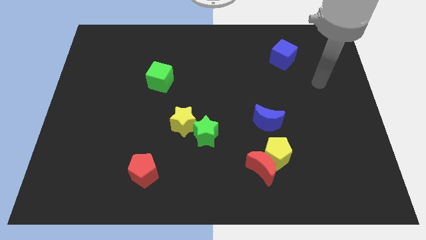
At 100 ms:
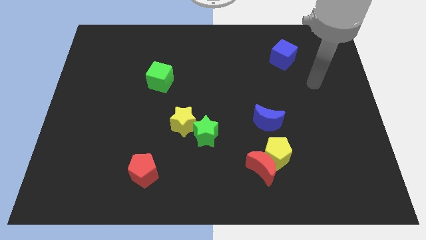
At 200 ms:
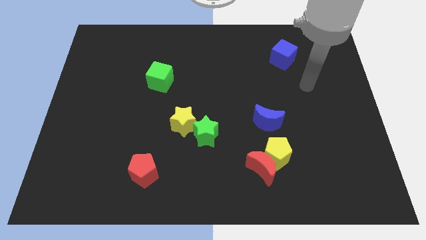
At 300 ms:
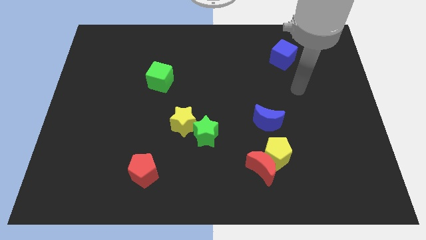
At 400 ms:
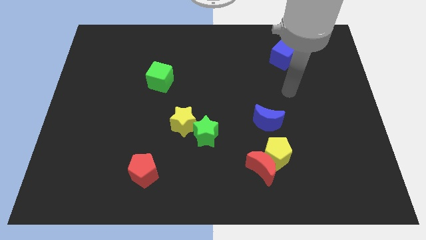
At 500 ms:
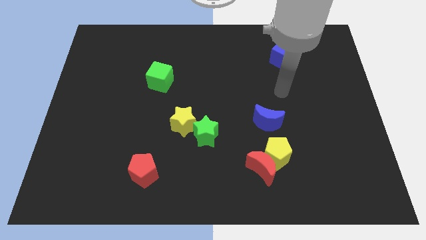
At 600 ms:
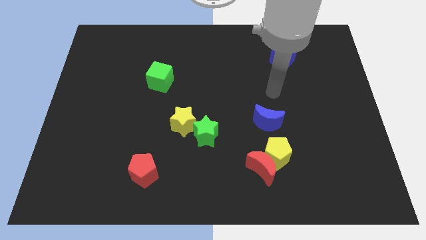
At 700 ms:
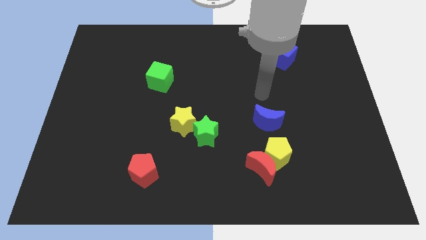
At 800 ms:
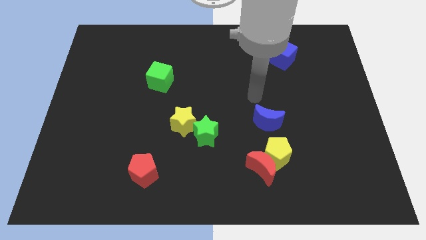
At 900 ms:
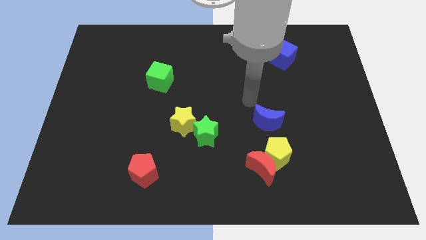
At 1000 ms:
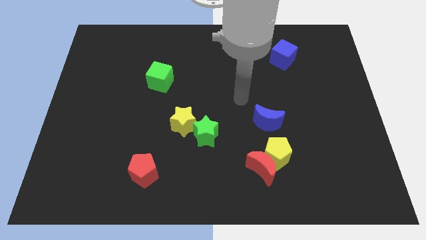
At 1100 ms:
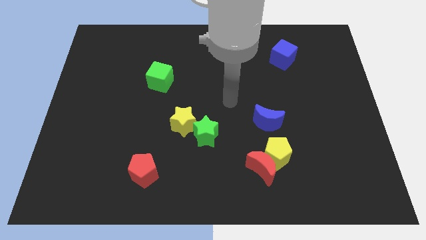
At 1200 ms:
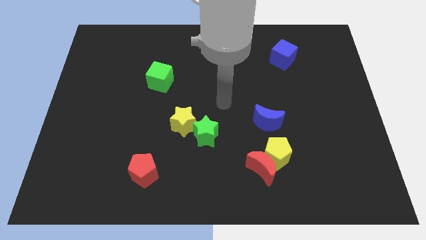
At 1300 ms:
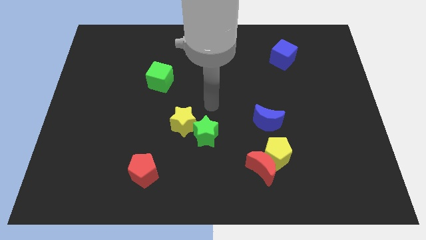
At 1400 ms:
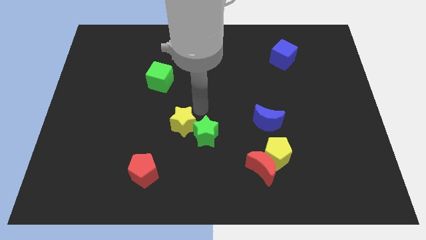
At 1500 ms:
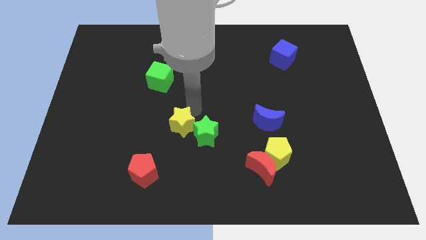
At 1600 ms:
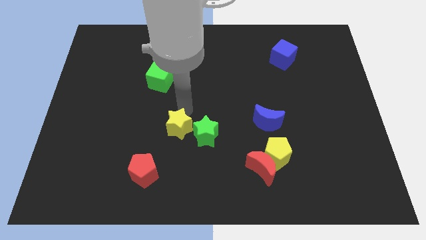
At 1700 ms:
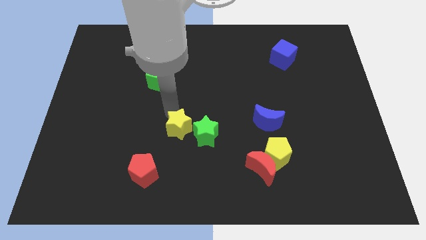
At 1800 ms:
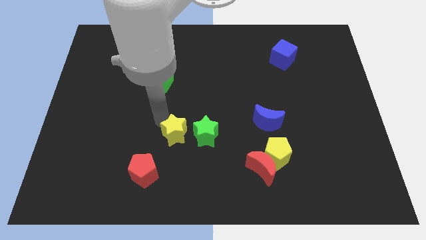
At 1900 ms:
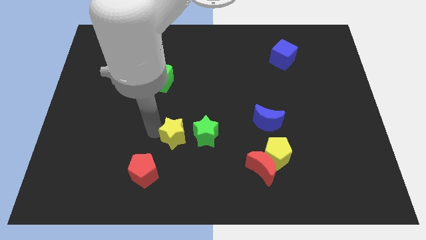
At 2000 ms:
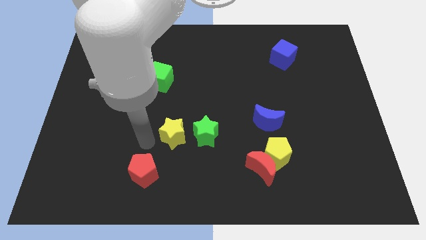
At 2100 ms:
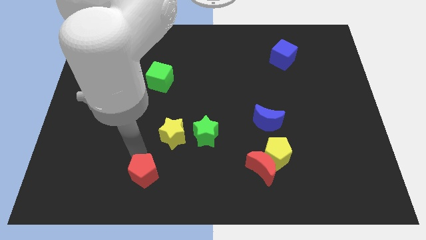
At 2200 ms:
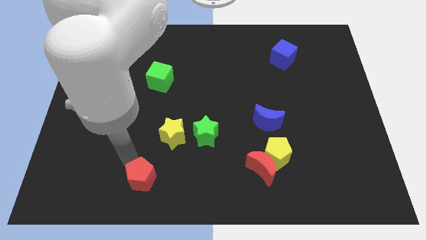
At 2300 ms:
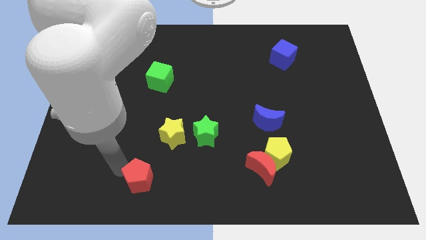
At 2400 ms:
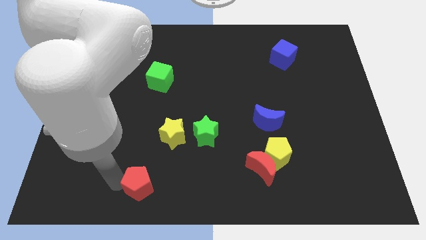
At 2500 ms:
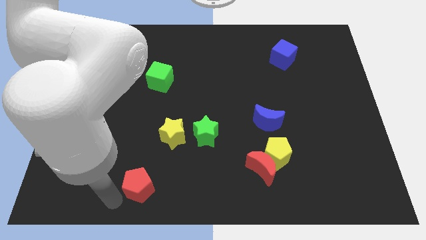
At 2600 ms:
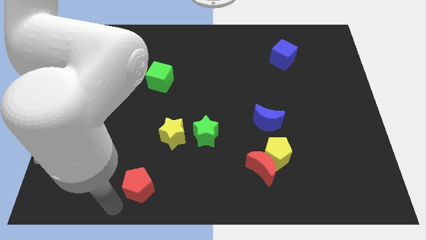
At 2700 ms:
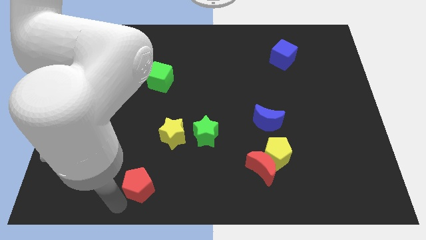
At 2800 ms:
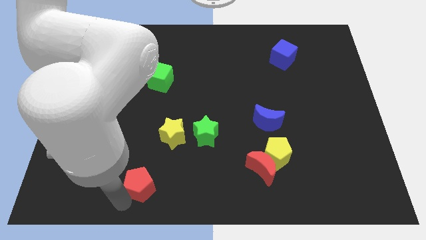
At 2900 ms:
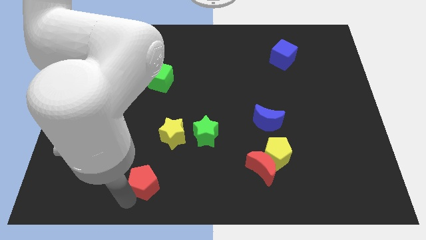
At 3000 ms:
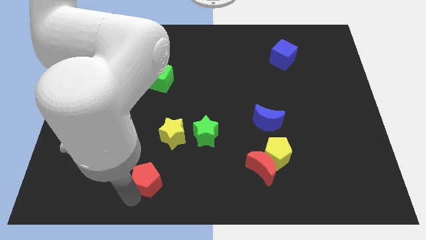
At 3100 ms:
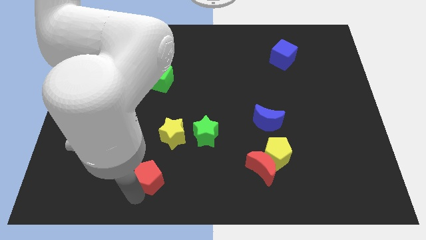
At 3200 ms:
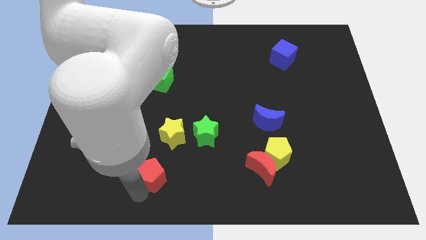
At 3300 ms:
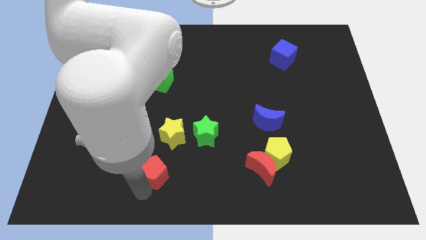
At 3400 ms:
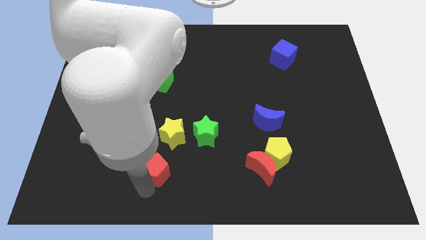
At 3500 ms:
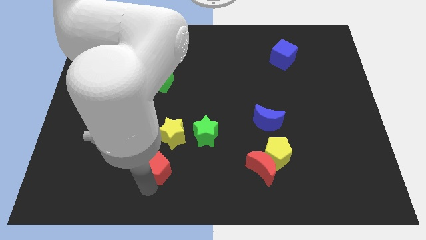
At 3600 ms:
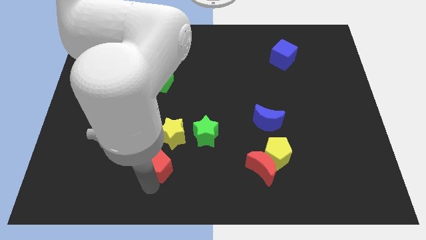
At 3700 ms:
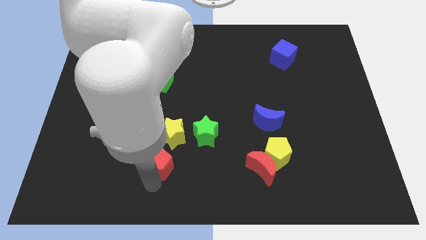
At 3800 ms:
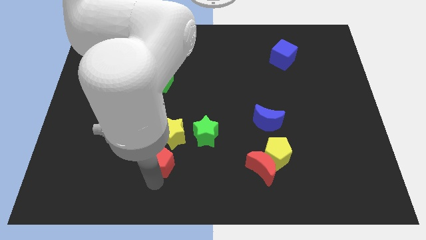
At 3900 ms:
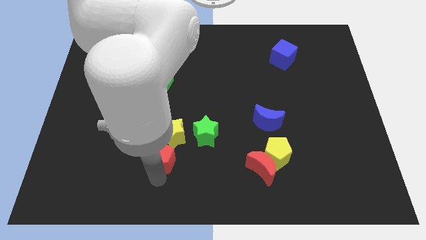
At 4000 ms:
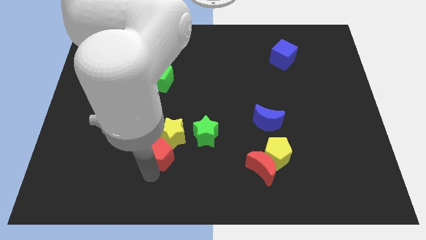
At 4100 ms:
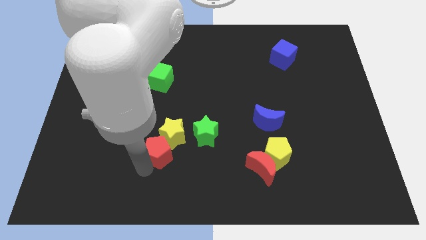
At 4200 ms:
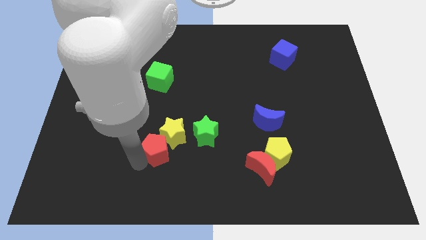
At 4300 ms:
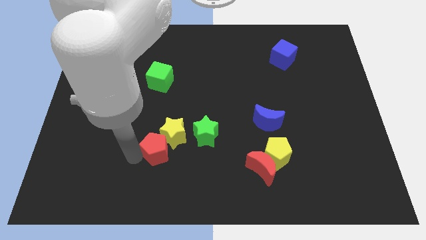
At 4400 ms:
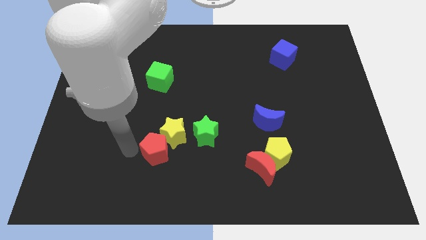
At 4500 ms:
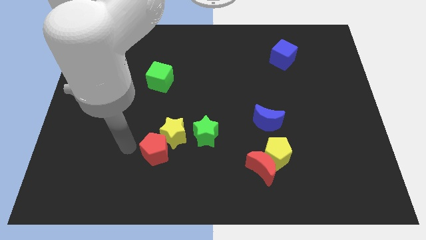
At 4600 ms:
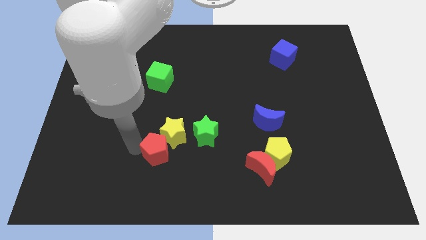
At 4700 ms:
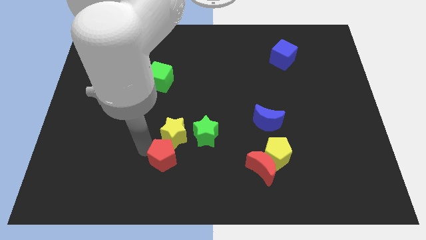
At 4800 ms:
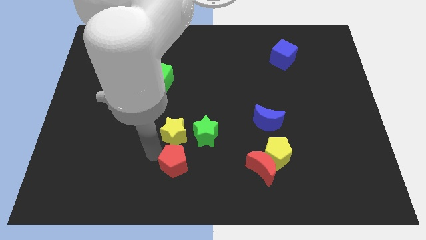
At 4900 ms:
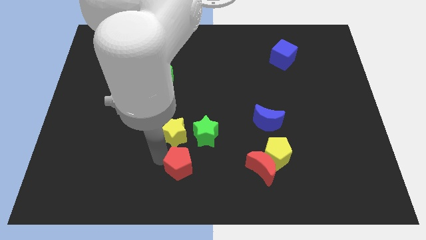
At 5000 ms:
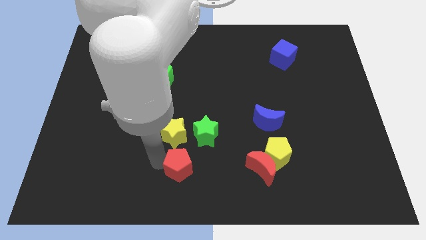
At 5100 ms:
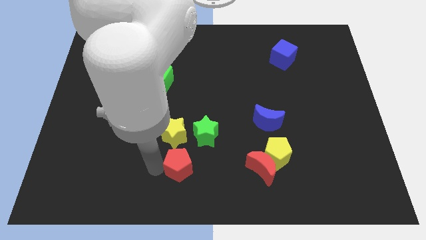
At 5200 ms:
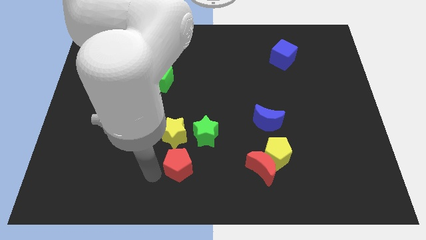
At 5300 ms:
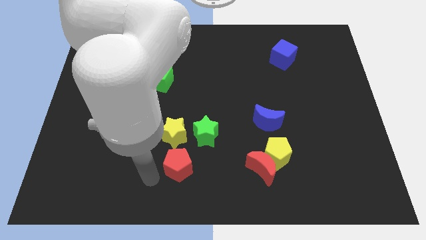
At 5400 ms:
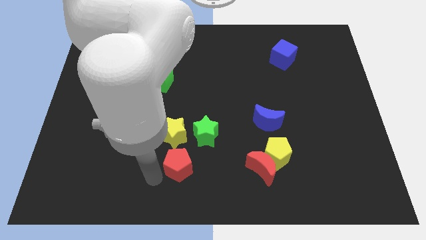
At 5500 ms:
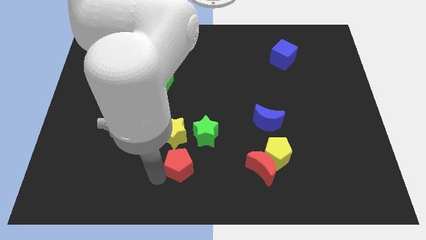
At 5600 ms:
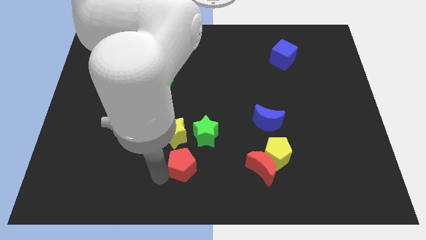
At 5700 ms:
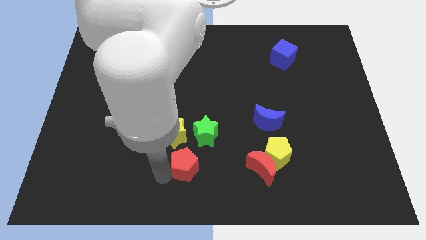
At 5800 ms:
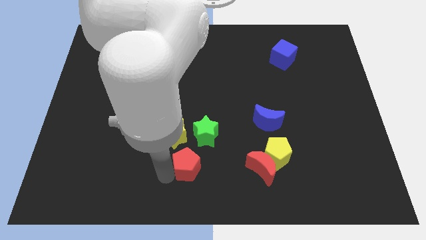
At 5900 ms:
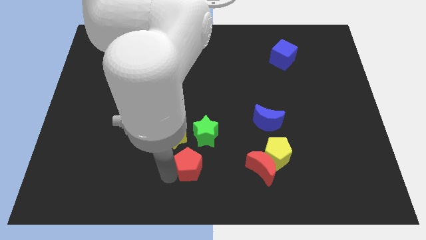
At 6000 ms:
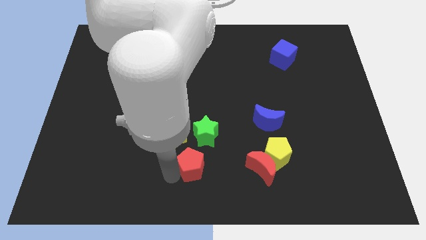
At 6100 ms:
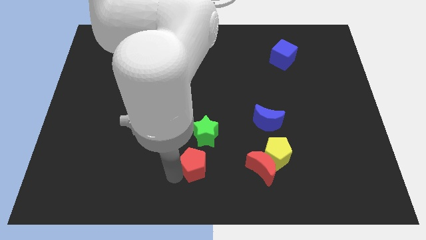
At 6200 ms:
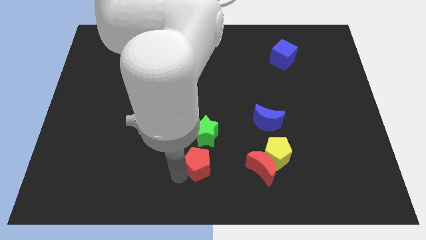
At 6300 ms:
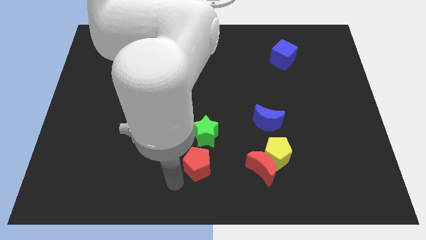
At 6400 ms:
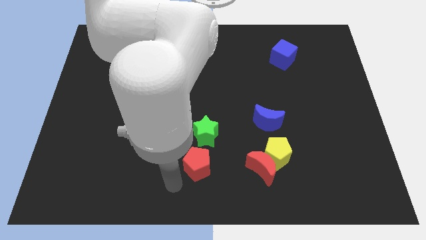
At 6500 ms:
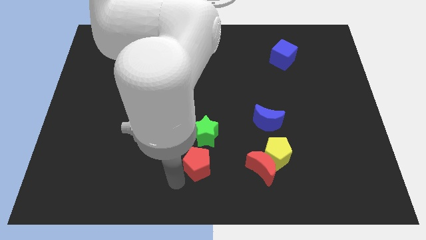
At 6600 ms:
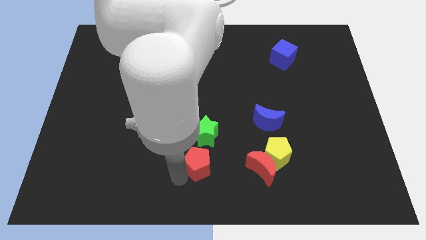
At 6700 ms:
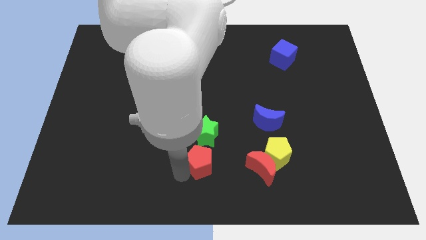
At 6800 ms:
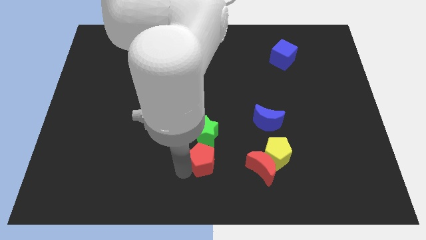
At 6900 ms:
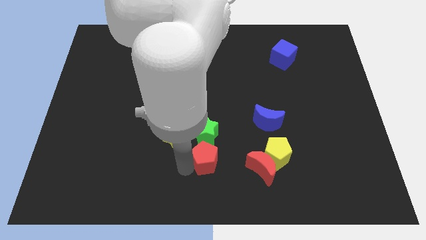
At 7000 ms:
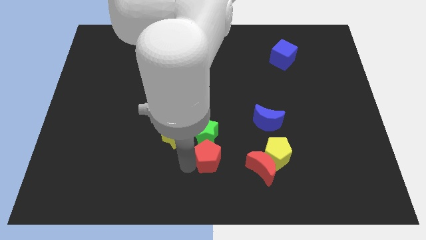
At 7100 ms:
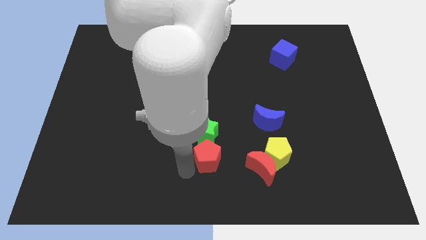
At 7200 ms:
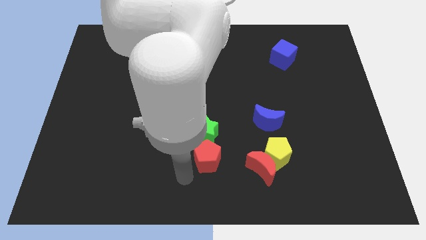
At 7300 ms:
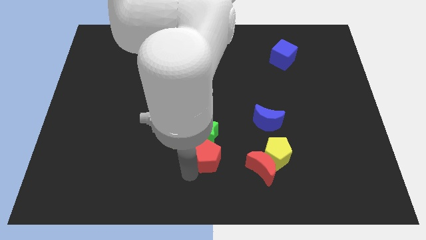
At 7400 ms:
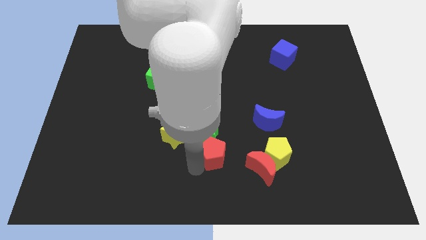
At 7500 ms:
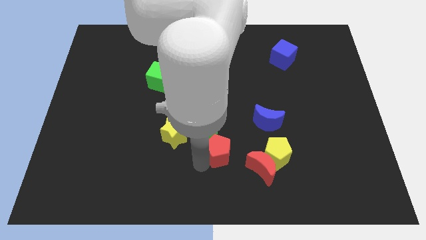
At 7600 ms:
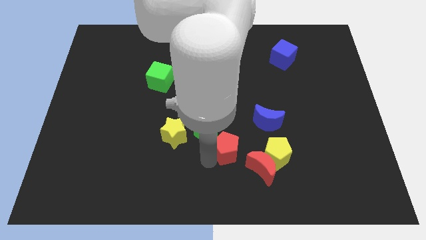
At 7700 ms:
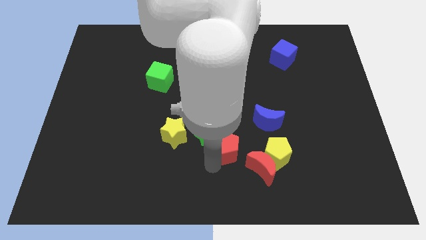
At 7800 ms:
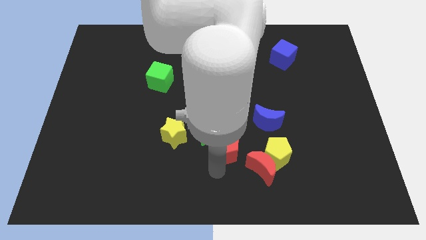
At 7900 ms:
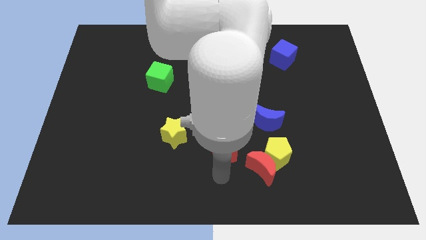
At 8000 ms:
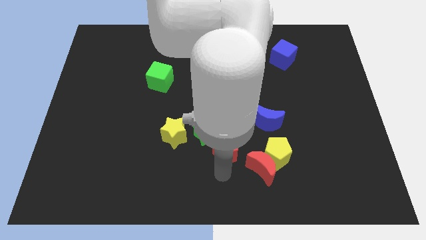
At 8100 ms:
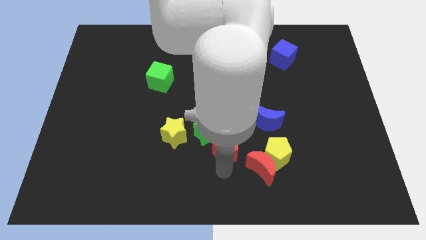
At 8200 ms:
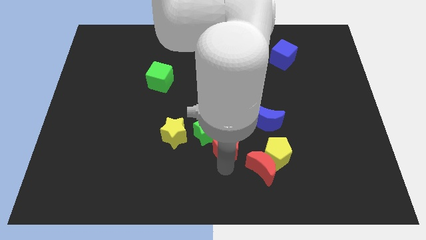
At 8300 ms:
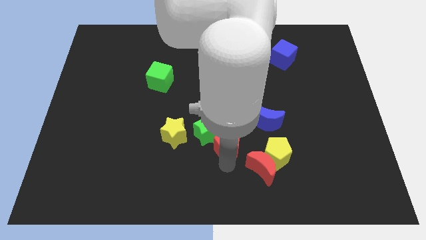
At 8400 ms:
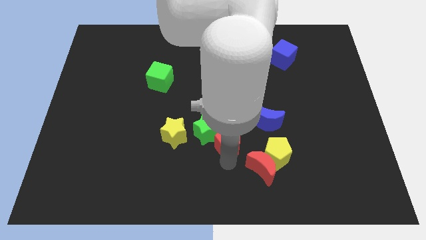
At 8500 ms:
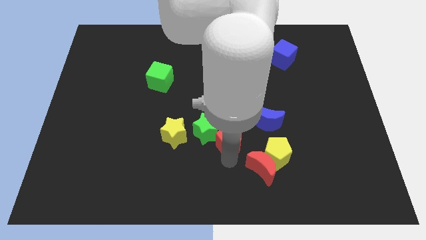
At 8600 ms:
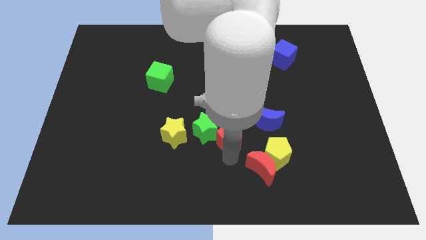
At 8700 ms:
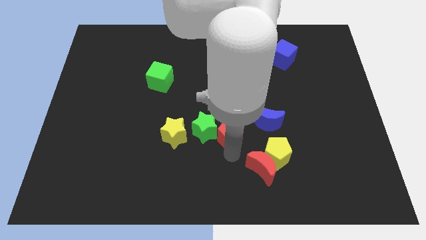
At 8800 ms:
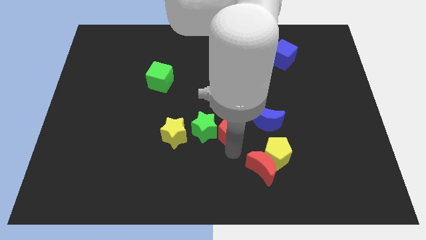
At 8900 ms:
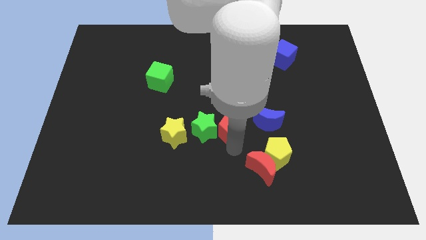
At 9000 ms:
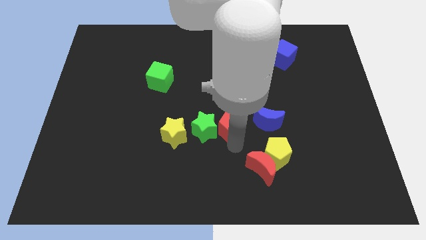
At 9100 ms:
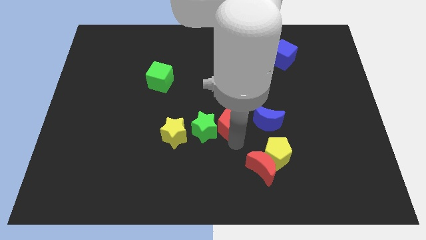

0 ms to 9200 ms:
slide the red pentagon upwards and right diagonally
